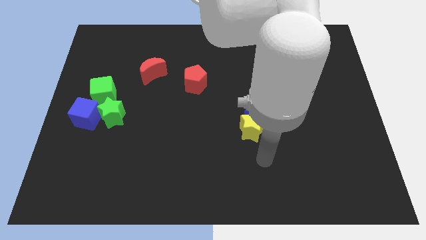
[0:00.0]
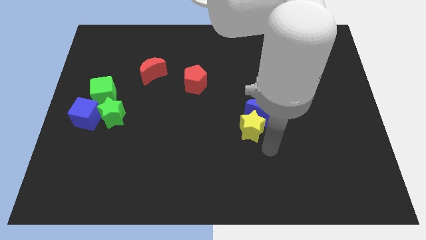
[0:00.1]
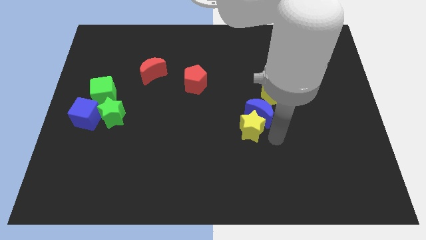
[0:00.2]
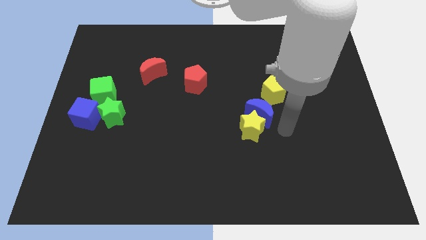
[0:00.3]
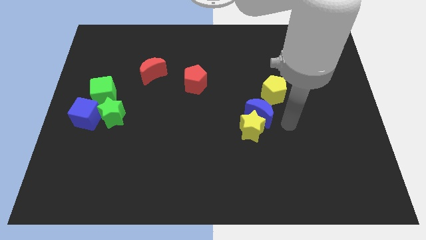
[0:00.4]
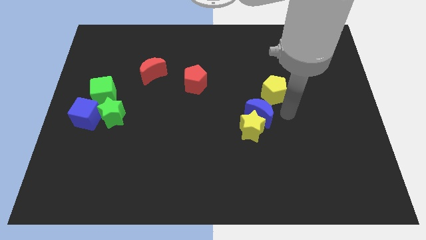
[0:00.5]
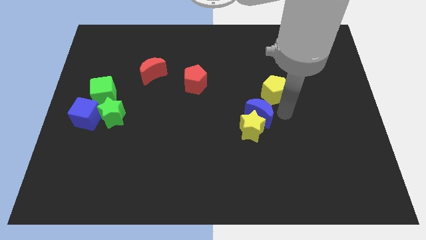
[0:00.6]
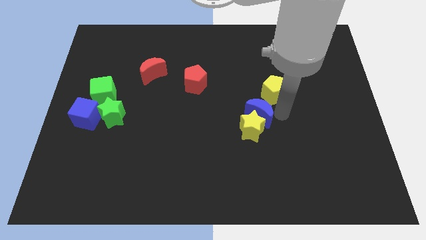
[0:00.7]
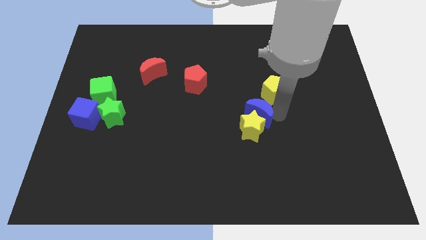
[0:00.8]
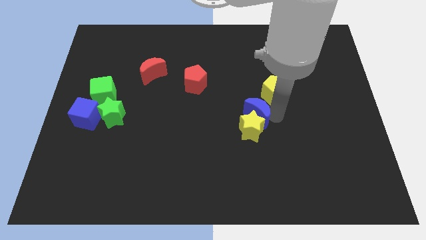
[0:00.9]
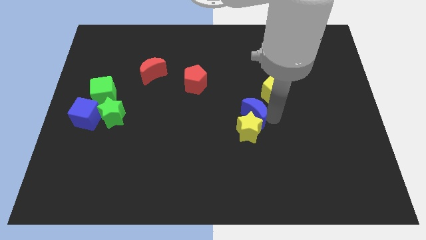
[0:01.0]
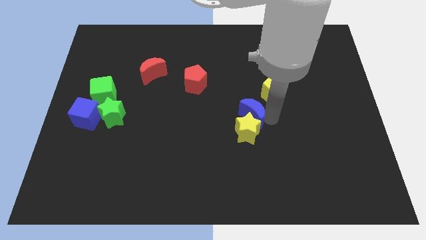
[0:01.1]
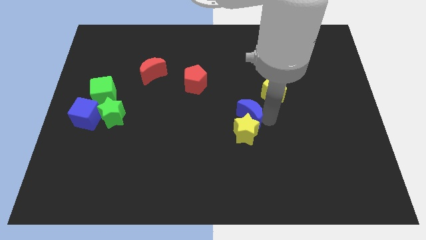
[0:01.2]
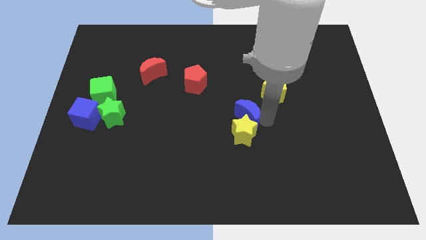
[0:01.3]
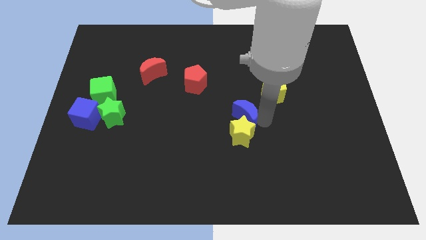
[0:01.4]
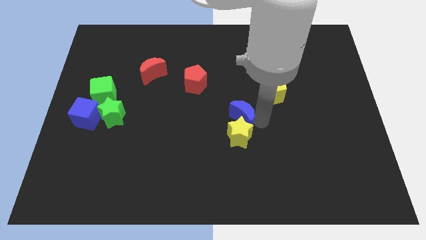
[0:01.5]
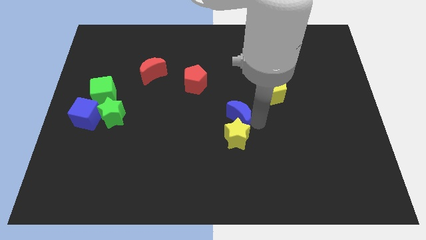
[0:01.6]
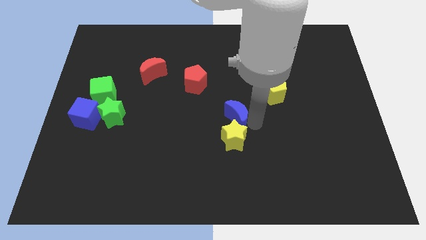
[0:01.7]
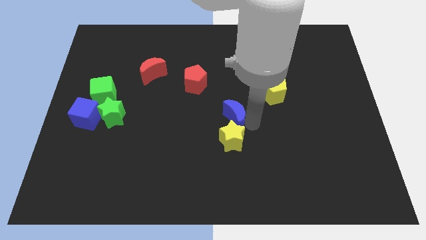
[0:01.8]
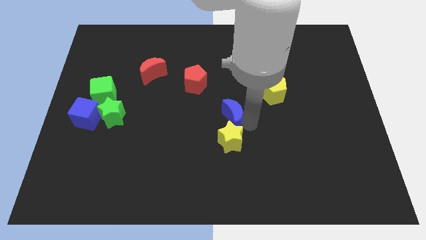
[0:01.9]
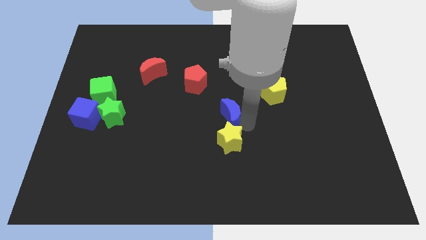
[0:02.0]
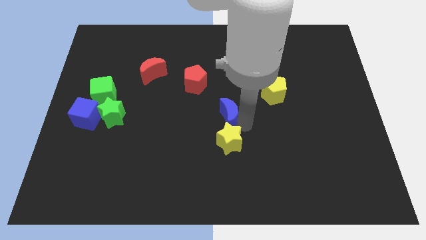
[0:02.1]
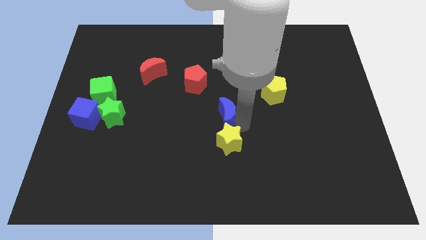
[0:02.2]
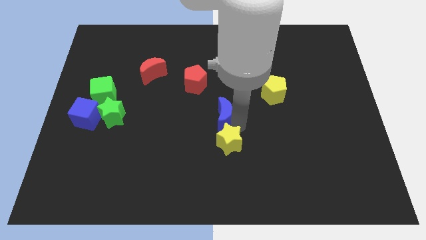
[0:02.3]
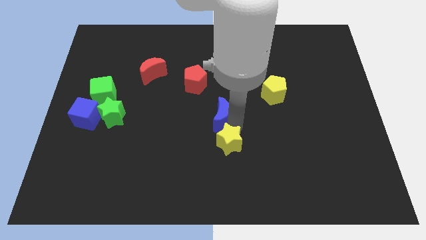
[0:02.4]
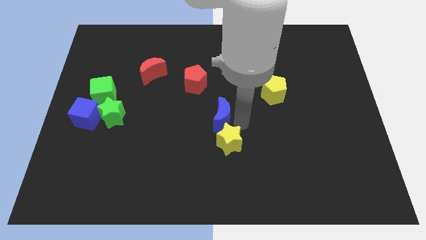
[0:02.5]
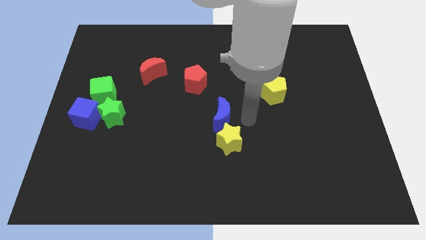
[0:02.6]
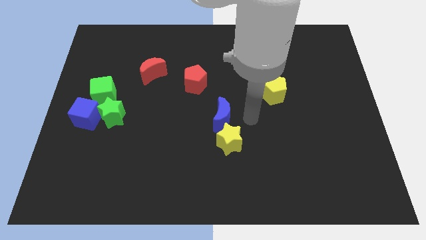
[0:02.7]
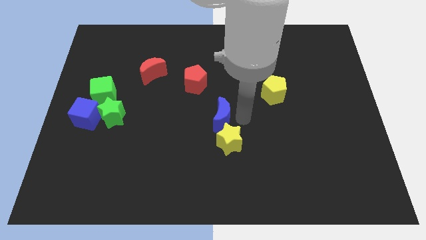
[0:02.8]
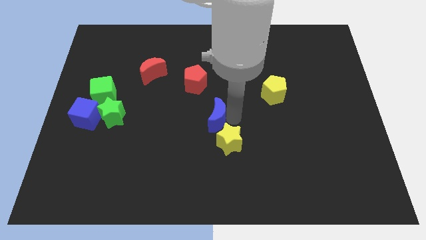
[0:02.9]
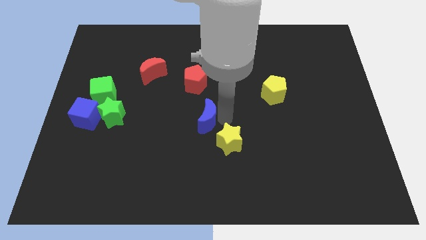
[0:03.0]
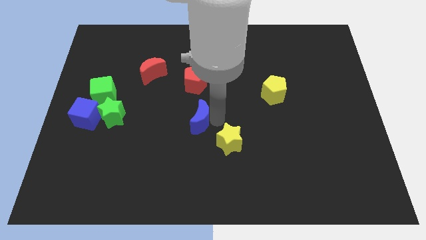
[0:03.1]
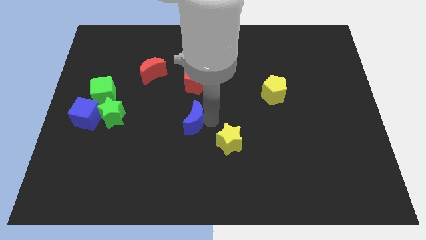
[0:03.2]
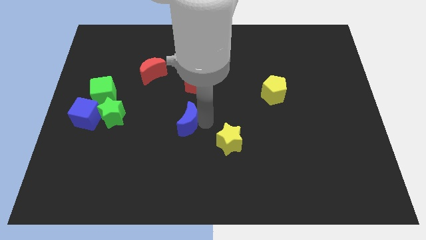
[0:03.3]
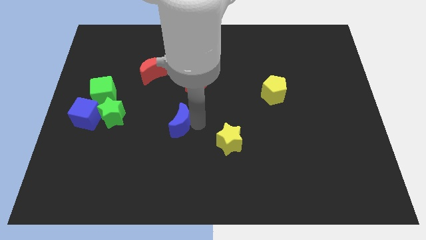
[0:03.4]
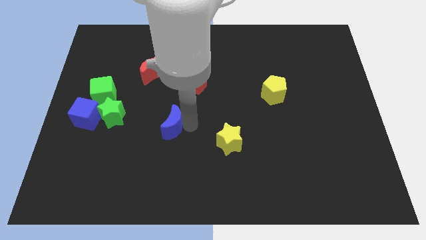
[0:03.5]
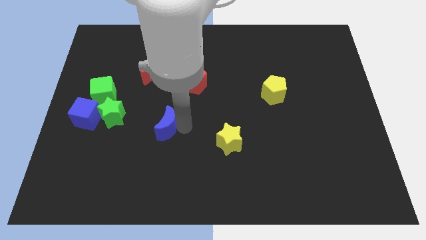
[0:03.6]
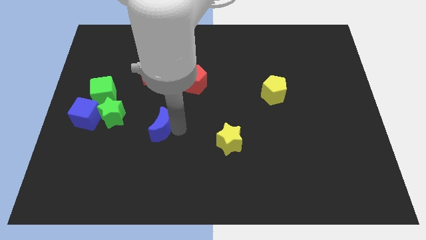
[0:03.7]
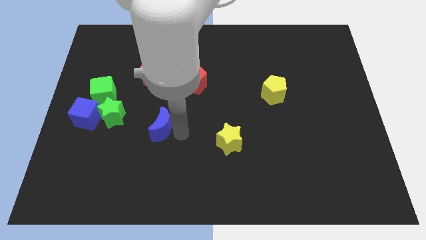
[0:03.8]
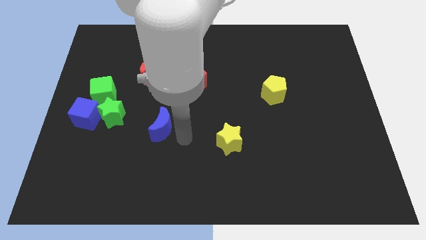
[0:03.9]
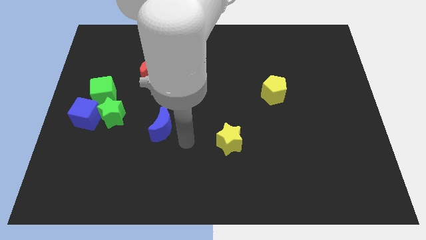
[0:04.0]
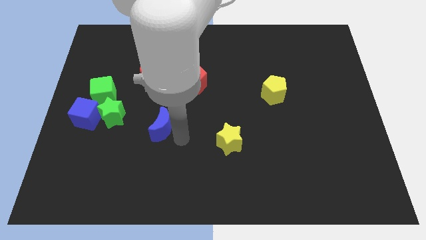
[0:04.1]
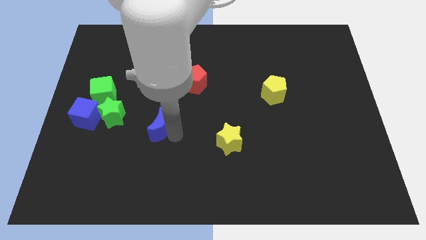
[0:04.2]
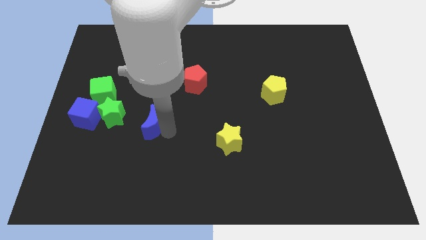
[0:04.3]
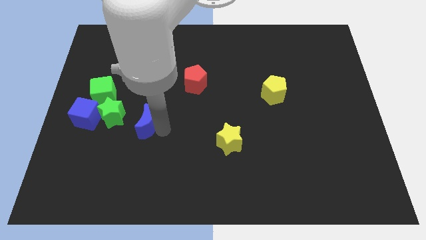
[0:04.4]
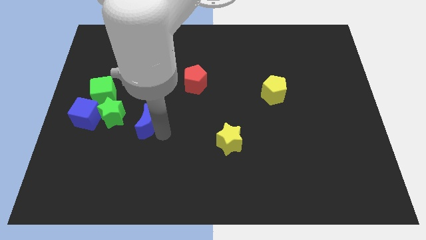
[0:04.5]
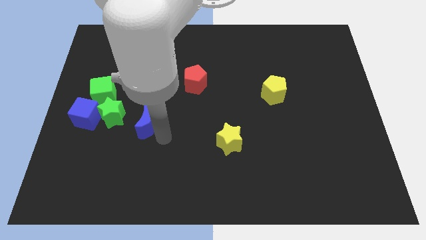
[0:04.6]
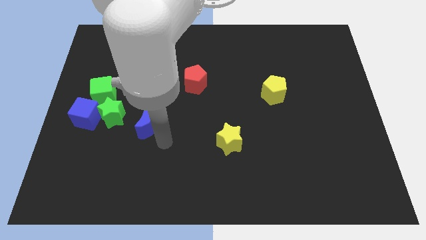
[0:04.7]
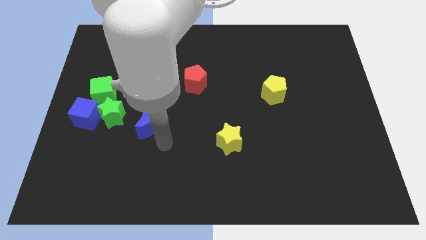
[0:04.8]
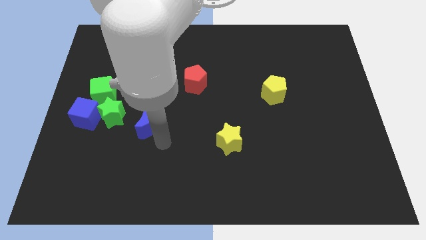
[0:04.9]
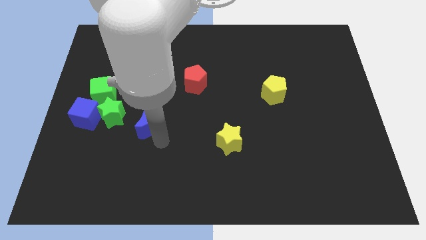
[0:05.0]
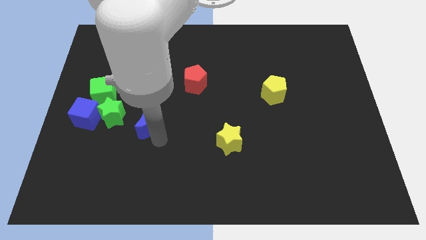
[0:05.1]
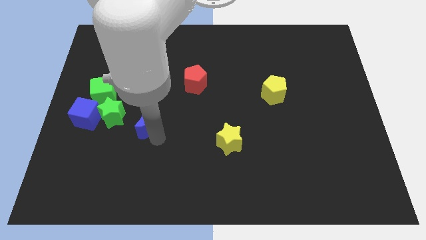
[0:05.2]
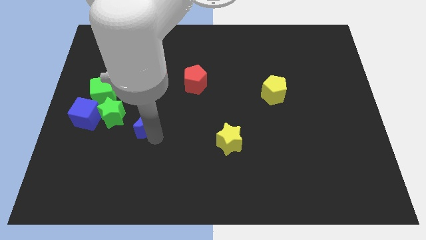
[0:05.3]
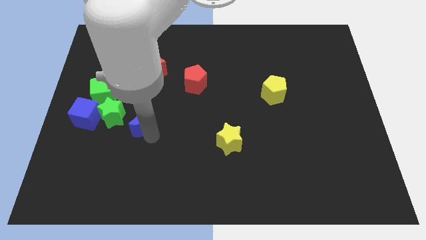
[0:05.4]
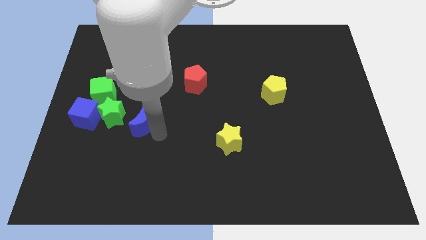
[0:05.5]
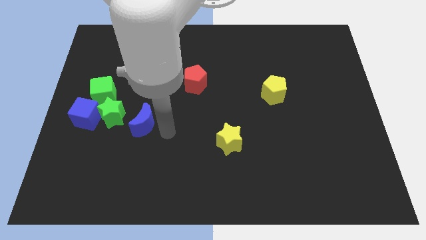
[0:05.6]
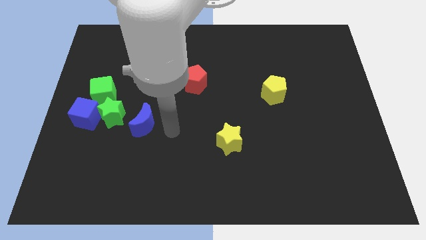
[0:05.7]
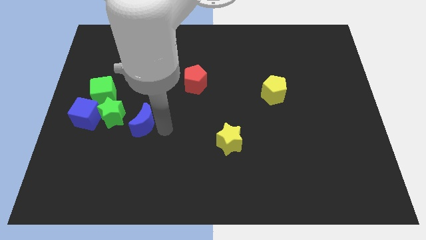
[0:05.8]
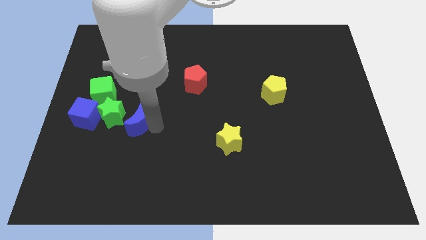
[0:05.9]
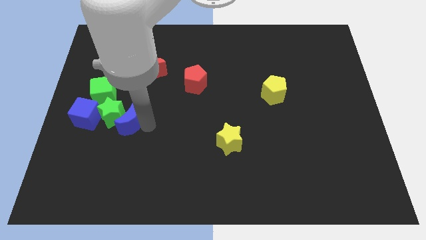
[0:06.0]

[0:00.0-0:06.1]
slide the blue moon towards the green star

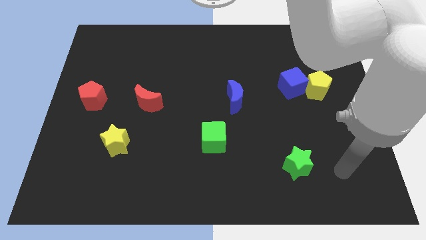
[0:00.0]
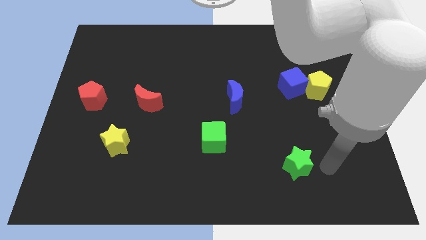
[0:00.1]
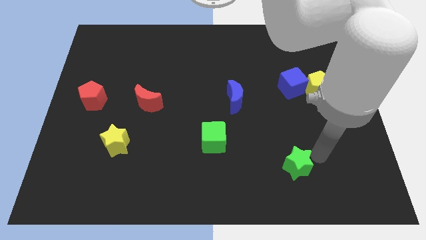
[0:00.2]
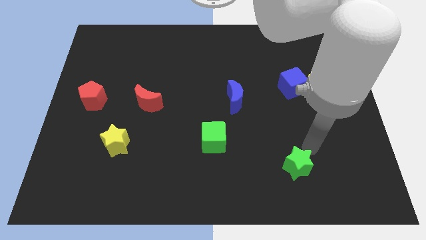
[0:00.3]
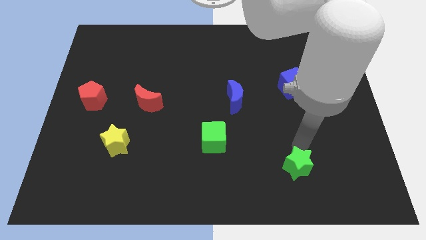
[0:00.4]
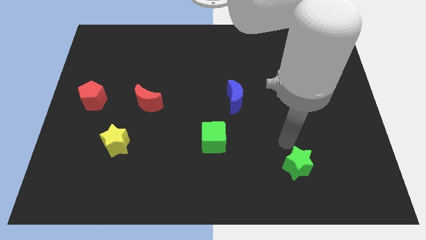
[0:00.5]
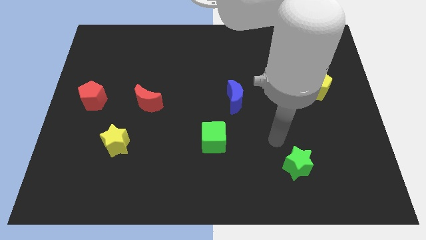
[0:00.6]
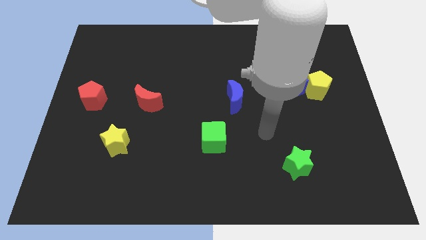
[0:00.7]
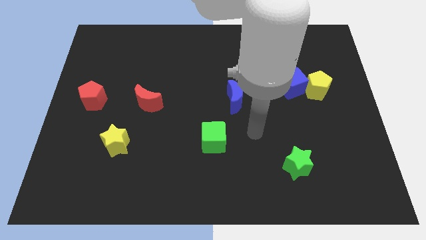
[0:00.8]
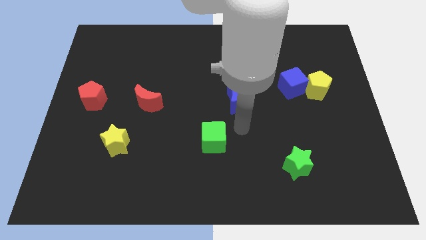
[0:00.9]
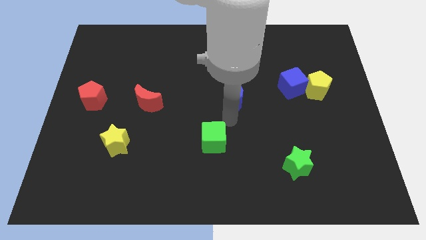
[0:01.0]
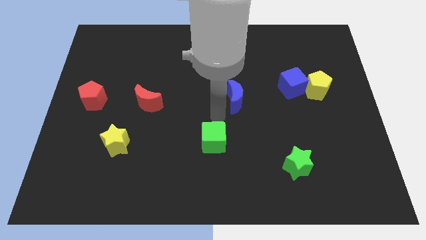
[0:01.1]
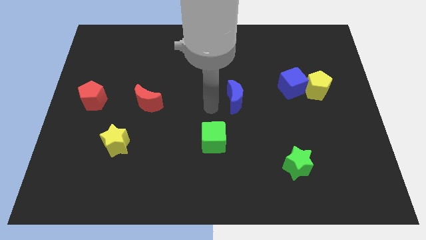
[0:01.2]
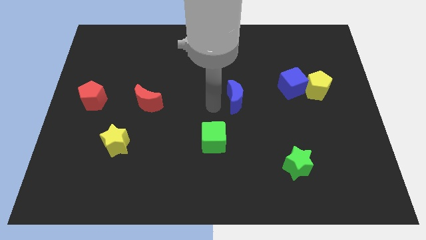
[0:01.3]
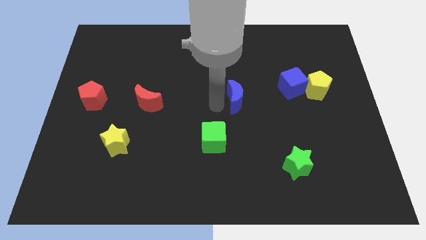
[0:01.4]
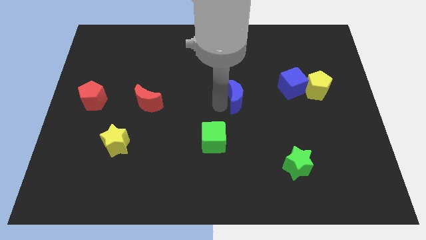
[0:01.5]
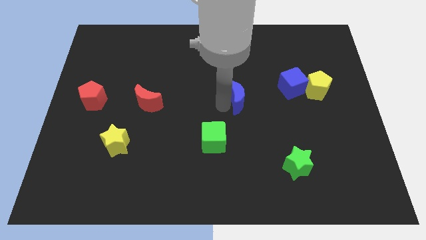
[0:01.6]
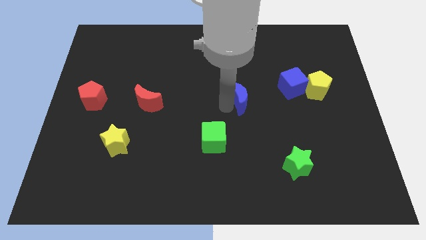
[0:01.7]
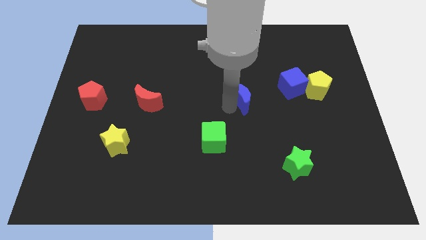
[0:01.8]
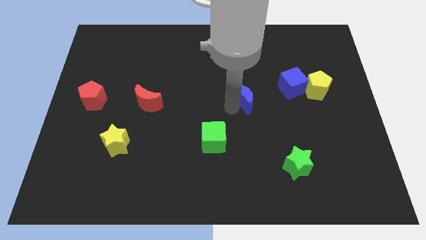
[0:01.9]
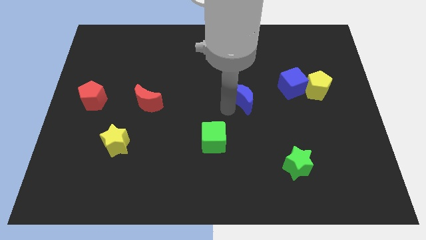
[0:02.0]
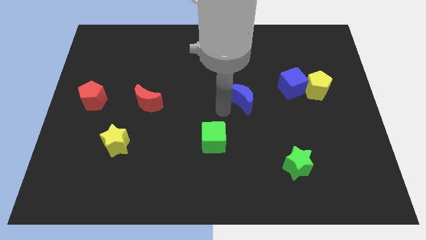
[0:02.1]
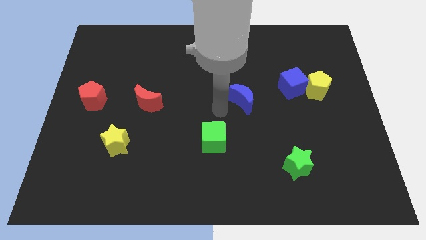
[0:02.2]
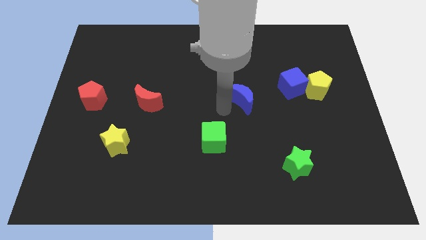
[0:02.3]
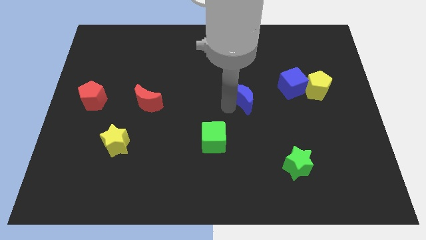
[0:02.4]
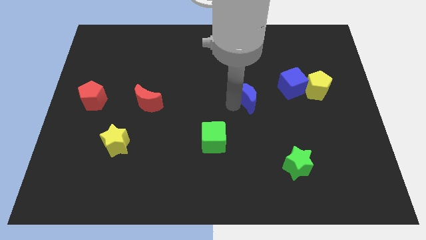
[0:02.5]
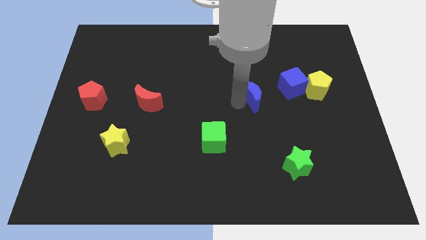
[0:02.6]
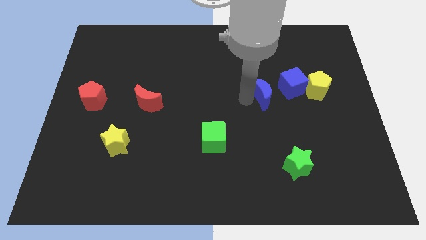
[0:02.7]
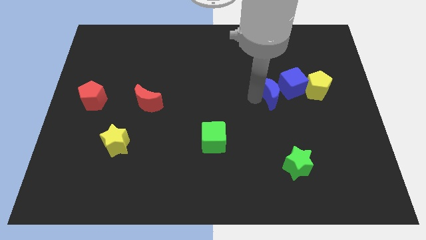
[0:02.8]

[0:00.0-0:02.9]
push the blue moon close to the blue cube
